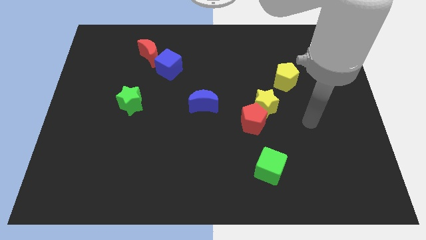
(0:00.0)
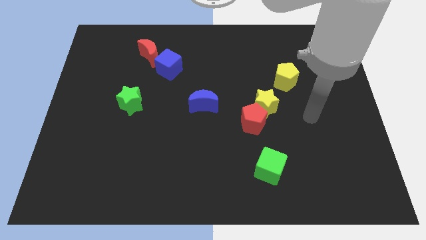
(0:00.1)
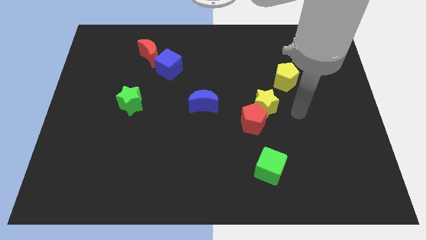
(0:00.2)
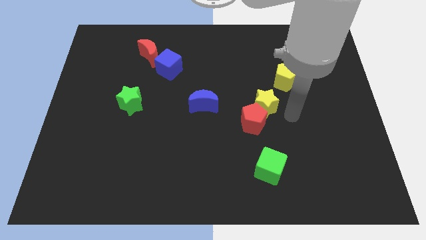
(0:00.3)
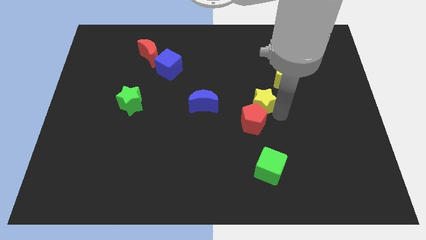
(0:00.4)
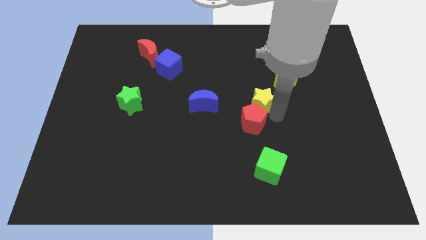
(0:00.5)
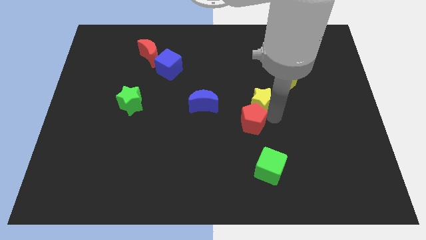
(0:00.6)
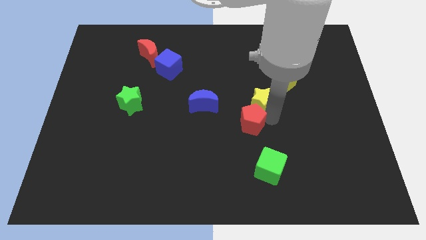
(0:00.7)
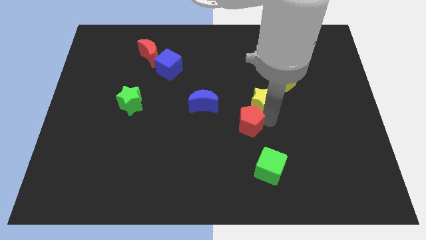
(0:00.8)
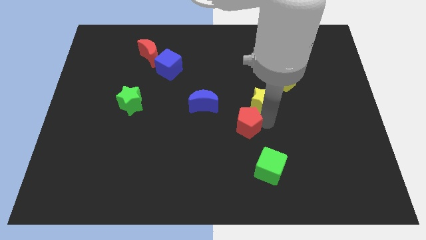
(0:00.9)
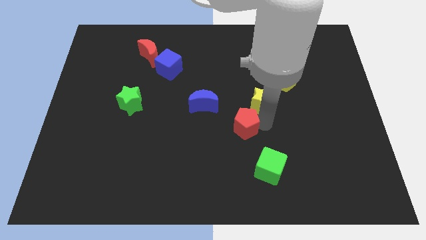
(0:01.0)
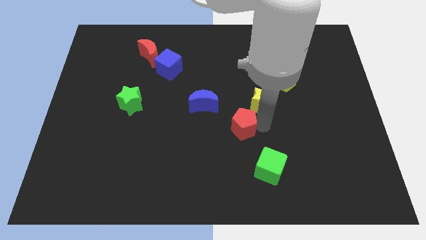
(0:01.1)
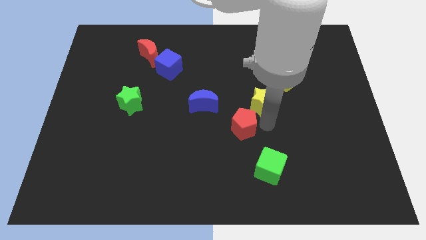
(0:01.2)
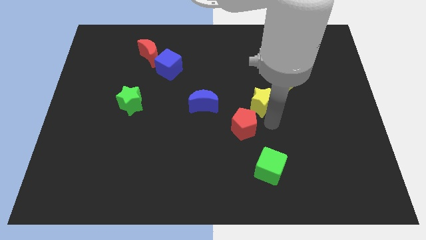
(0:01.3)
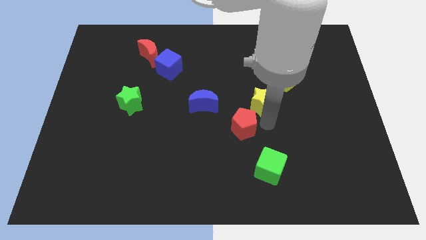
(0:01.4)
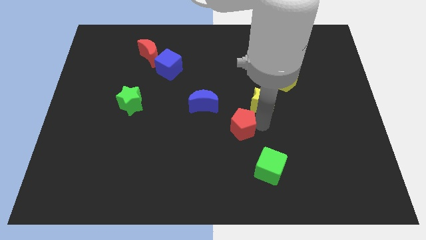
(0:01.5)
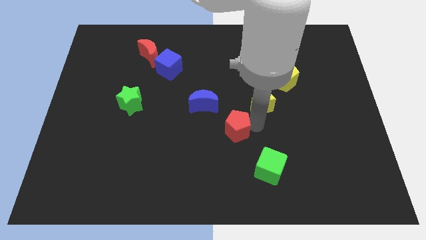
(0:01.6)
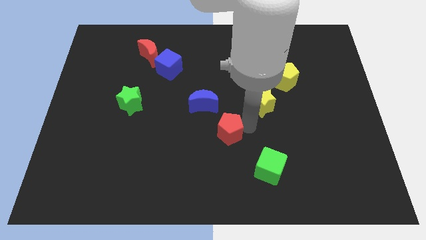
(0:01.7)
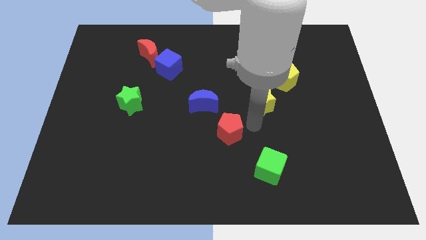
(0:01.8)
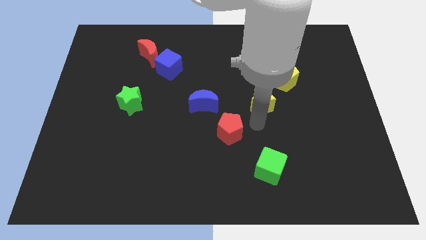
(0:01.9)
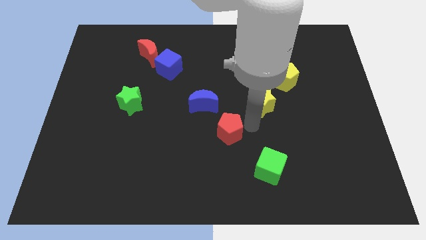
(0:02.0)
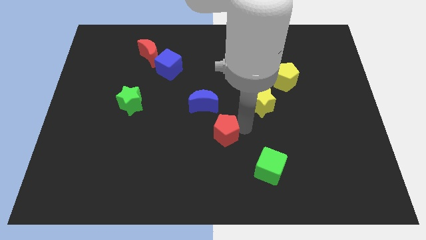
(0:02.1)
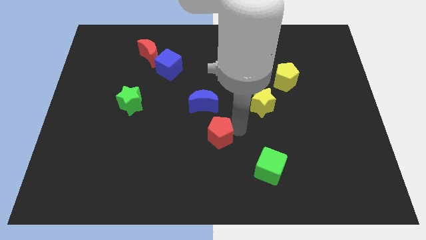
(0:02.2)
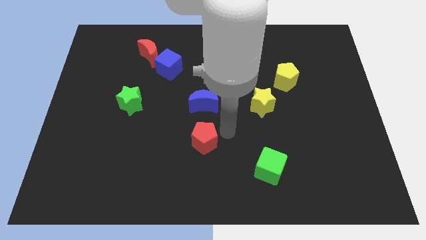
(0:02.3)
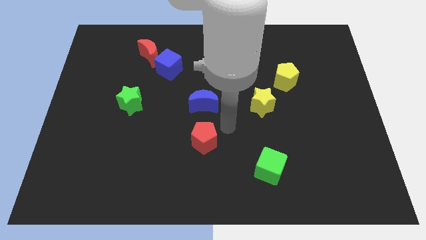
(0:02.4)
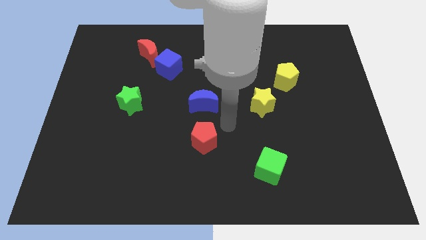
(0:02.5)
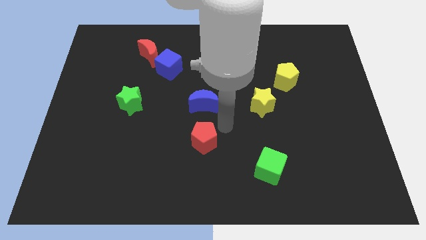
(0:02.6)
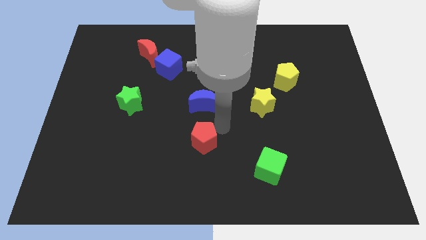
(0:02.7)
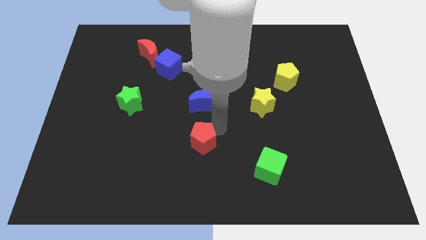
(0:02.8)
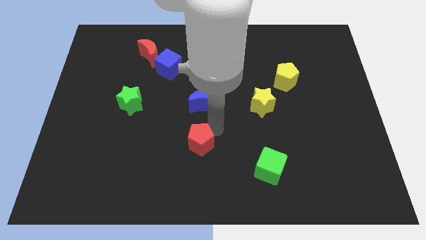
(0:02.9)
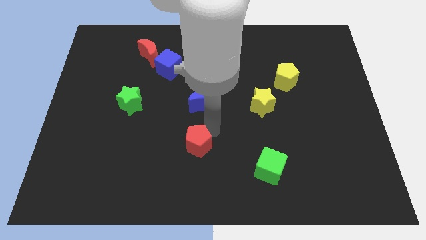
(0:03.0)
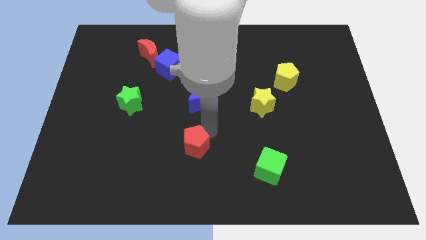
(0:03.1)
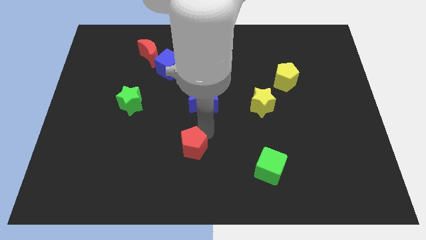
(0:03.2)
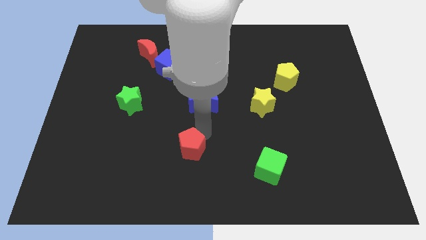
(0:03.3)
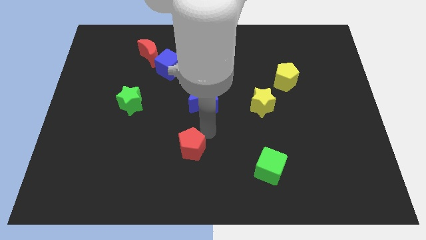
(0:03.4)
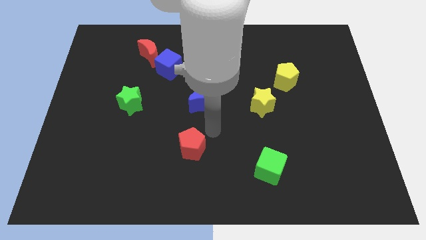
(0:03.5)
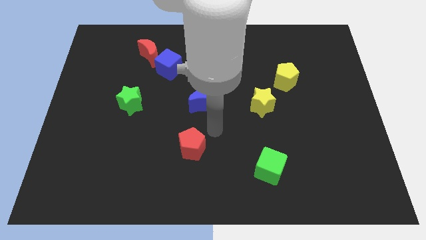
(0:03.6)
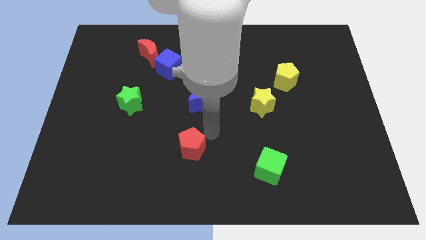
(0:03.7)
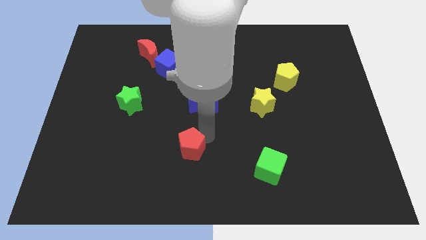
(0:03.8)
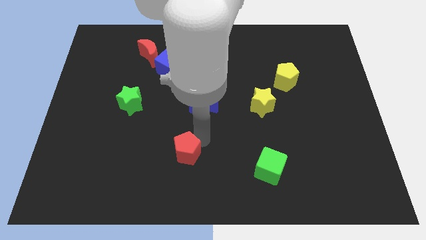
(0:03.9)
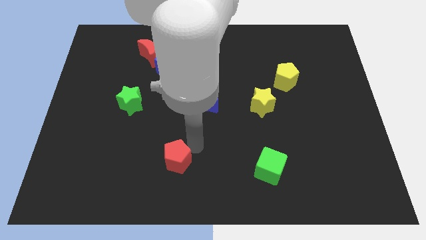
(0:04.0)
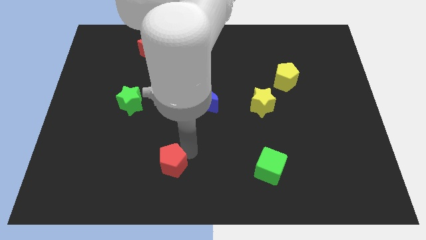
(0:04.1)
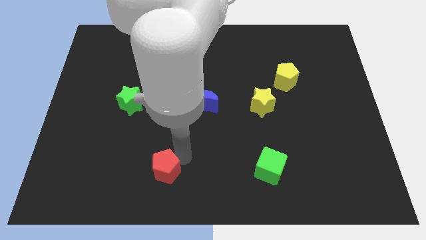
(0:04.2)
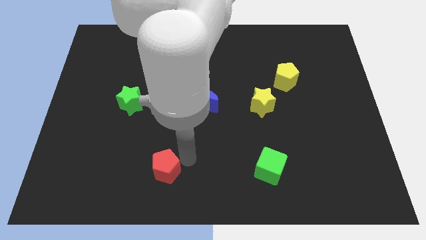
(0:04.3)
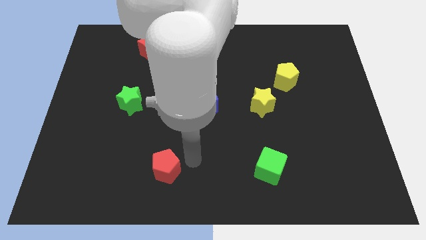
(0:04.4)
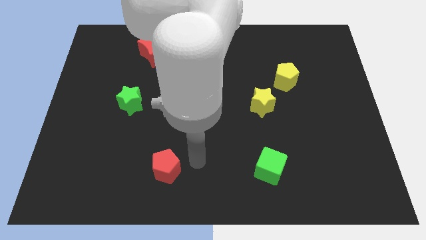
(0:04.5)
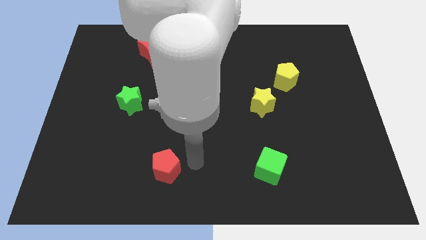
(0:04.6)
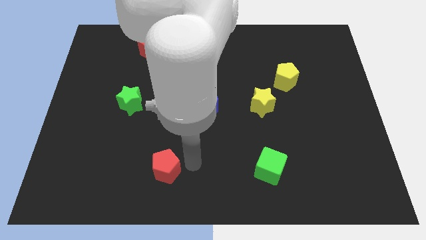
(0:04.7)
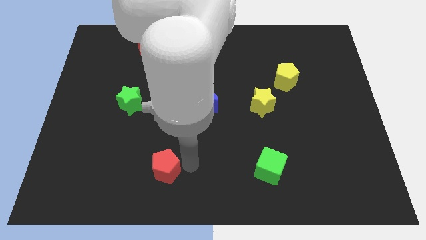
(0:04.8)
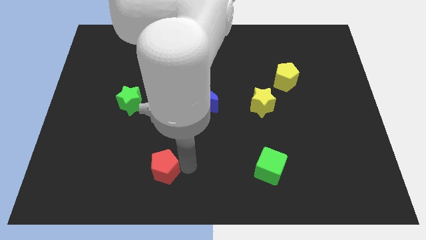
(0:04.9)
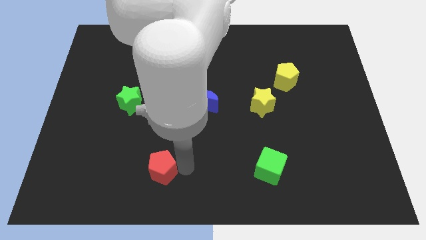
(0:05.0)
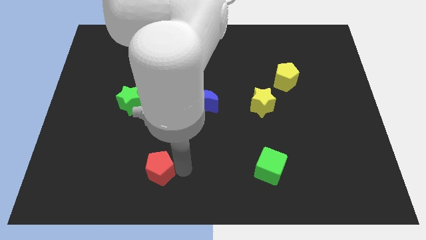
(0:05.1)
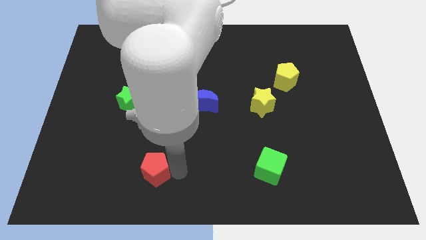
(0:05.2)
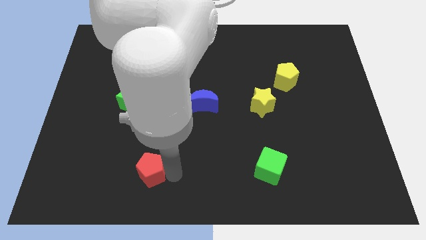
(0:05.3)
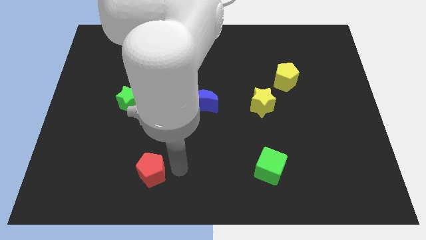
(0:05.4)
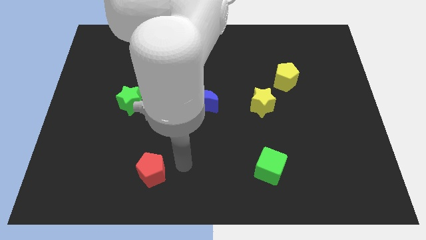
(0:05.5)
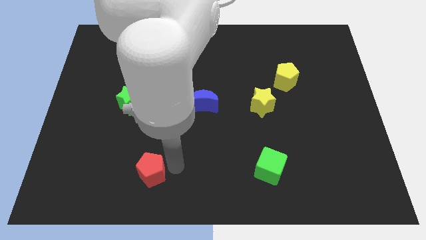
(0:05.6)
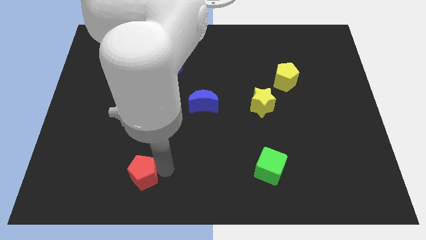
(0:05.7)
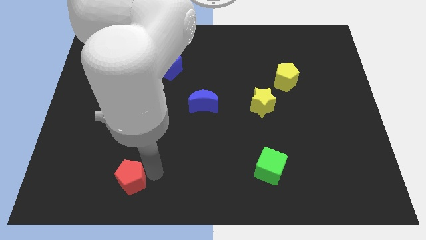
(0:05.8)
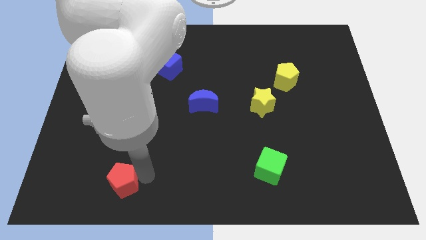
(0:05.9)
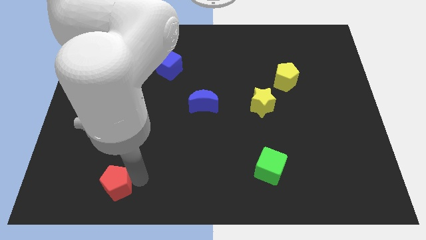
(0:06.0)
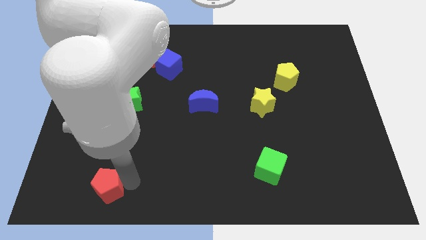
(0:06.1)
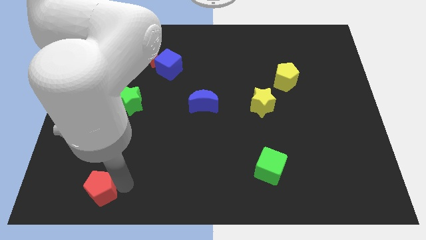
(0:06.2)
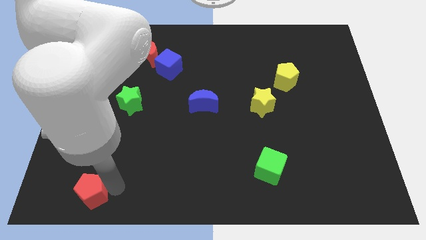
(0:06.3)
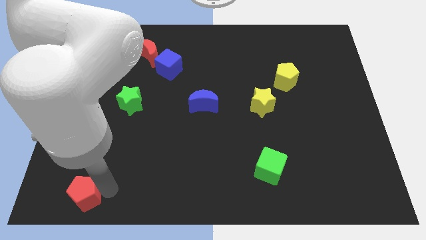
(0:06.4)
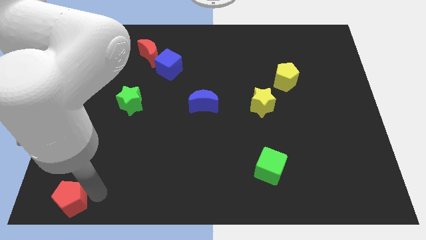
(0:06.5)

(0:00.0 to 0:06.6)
put the red pentagon to the bottom left of the board

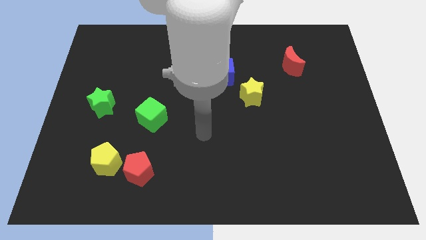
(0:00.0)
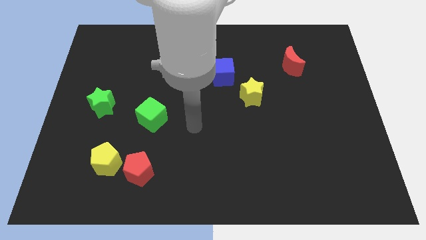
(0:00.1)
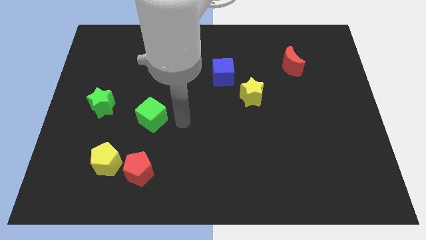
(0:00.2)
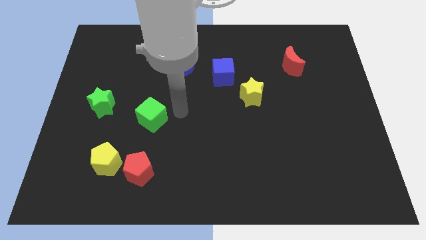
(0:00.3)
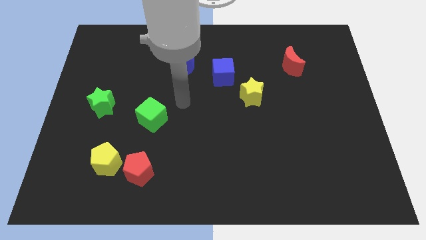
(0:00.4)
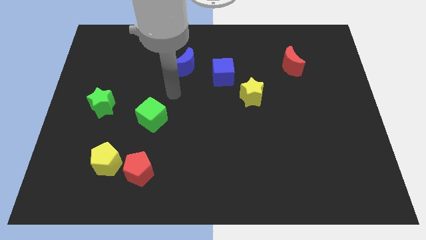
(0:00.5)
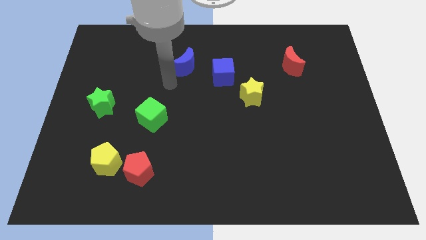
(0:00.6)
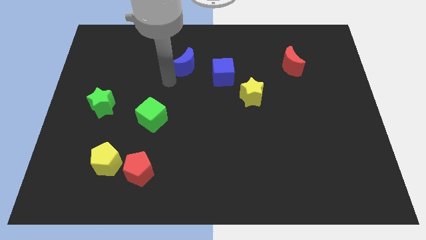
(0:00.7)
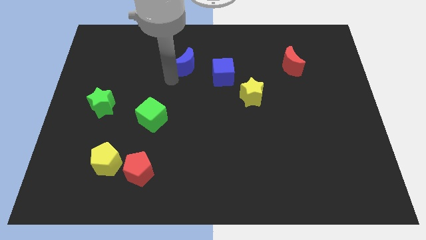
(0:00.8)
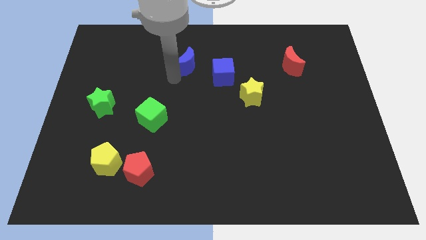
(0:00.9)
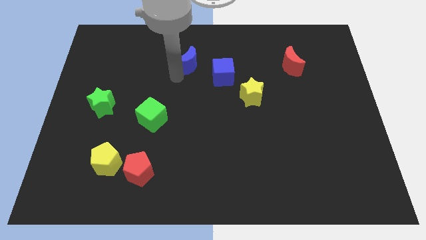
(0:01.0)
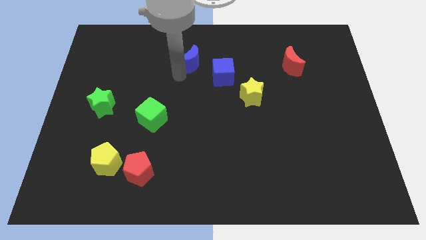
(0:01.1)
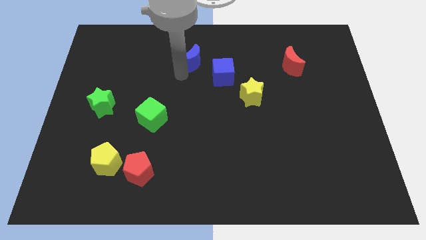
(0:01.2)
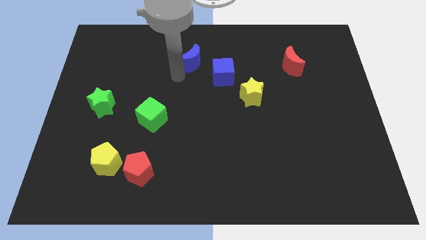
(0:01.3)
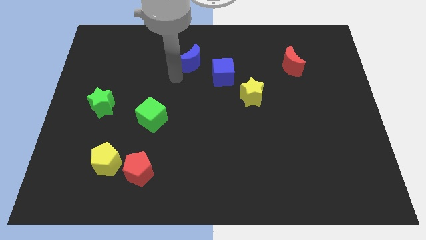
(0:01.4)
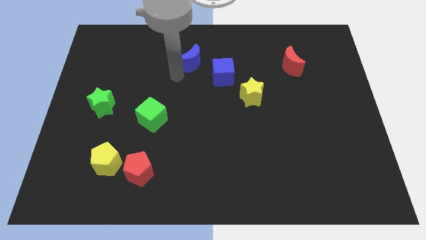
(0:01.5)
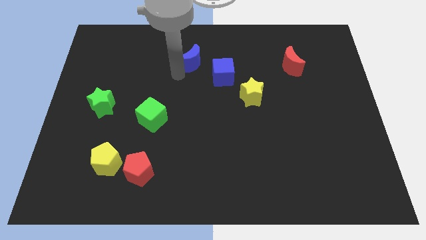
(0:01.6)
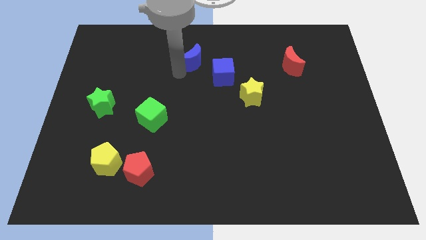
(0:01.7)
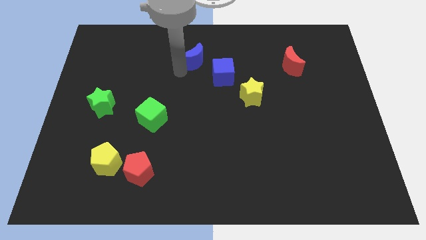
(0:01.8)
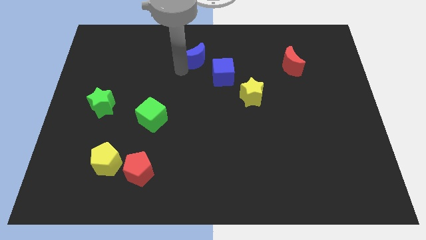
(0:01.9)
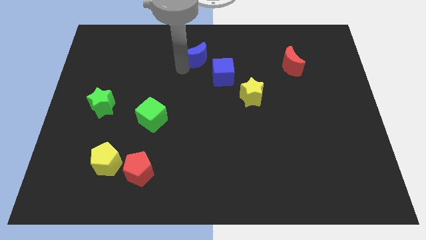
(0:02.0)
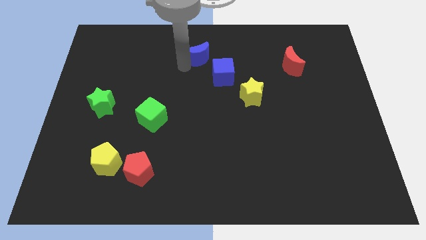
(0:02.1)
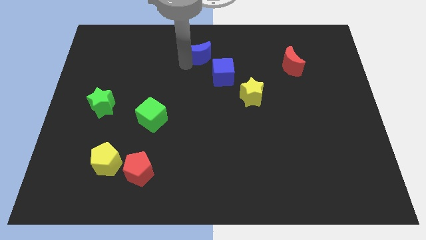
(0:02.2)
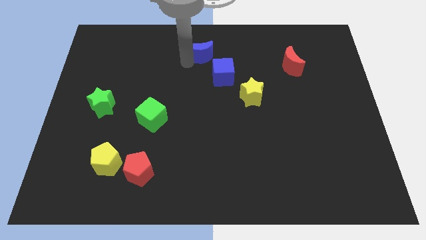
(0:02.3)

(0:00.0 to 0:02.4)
put the blue moon to the top side
